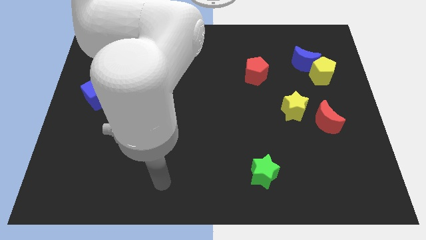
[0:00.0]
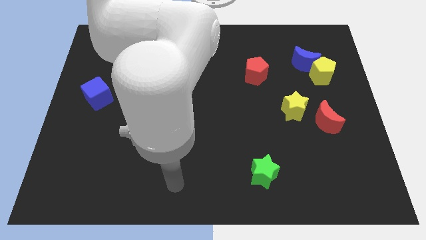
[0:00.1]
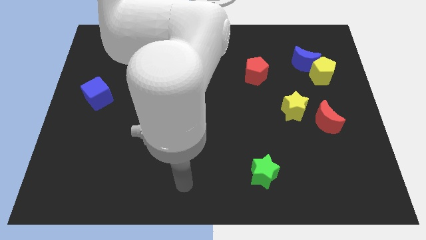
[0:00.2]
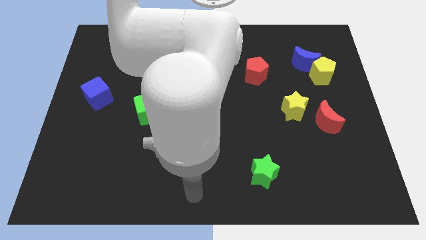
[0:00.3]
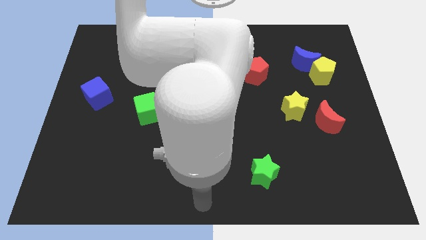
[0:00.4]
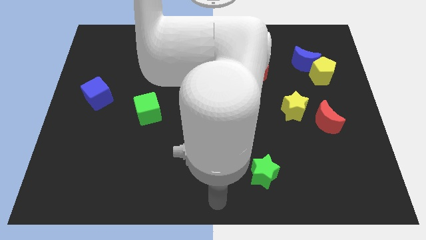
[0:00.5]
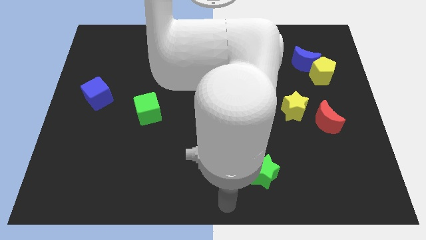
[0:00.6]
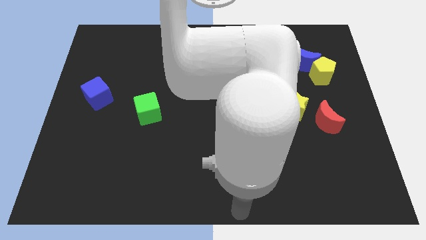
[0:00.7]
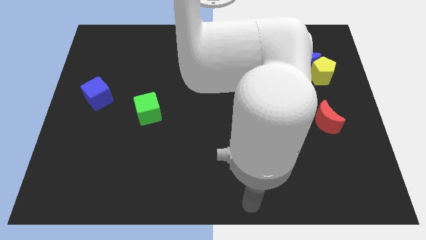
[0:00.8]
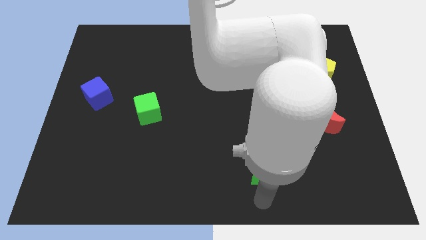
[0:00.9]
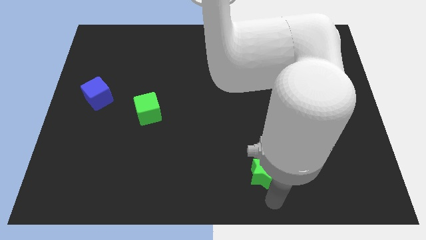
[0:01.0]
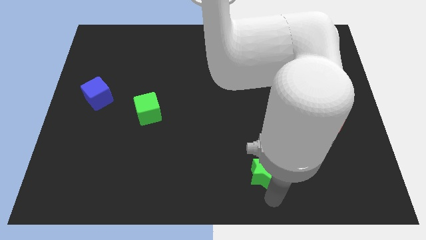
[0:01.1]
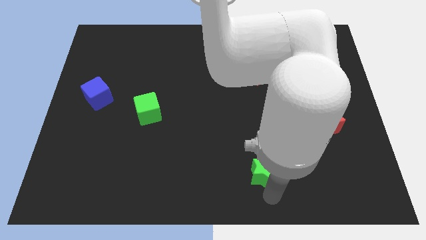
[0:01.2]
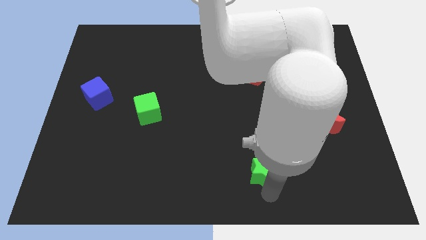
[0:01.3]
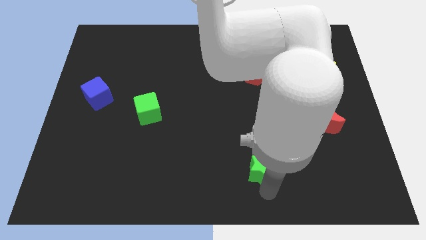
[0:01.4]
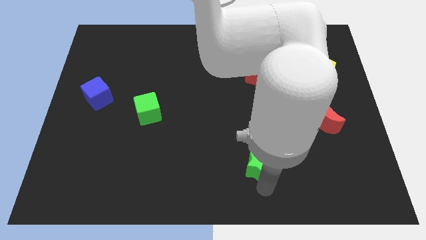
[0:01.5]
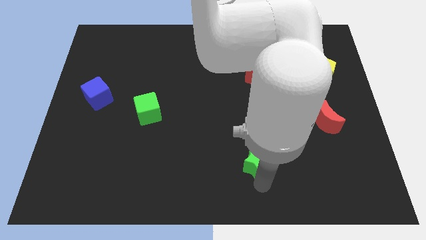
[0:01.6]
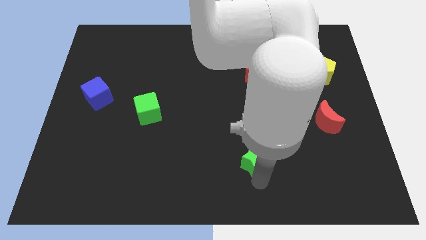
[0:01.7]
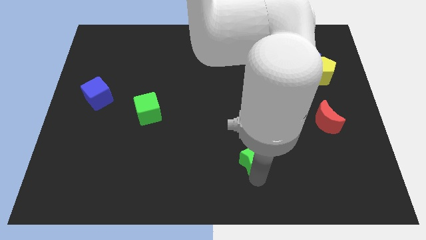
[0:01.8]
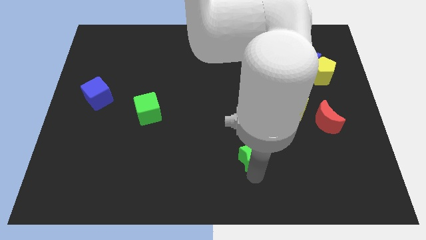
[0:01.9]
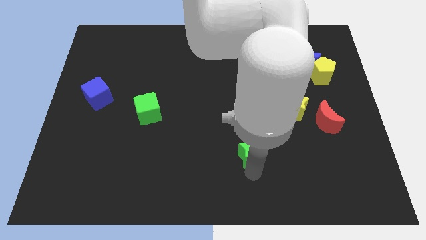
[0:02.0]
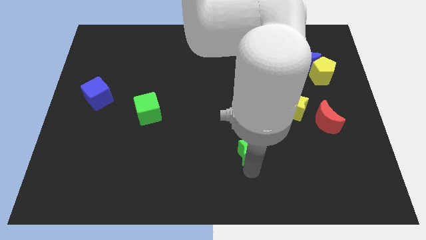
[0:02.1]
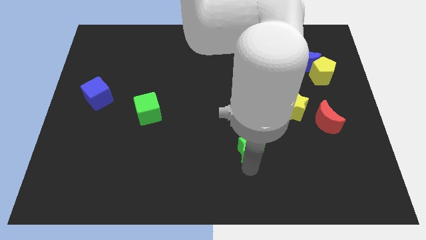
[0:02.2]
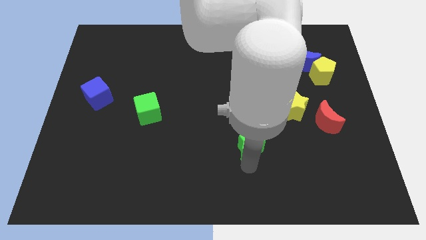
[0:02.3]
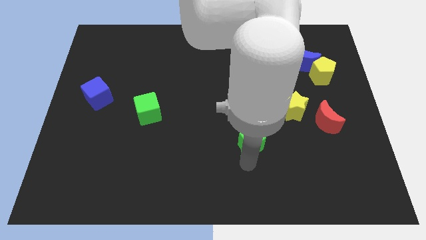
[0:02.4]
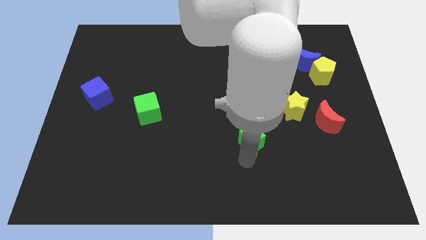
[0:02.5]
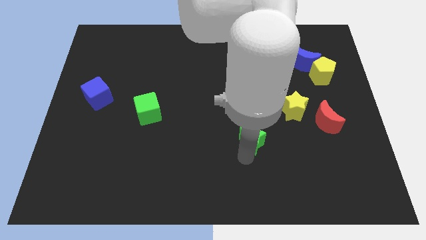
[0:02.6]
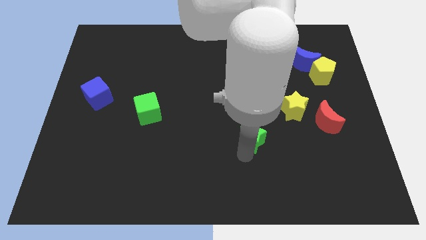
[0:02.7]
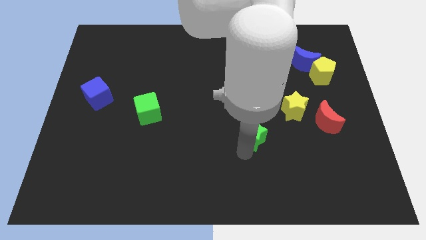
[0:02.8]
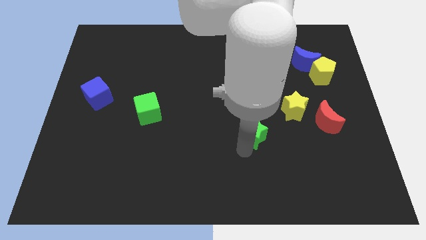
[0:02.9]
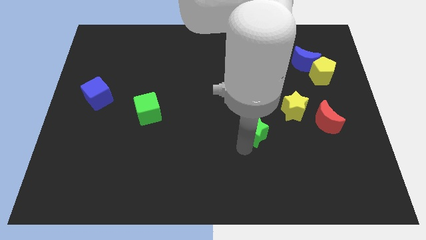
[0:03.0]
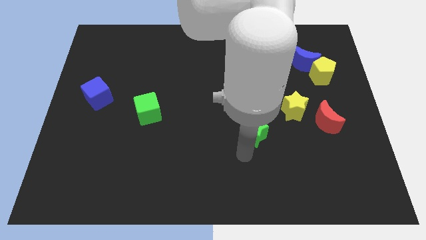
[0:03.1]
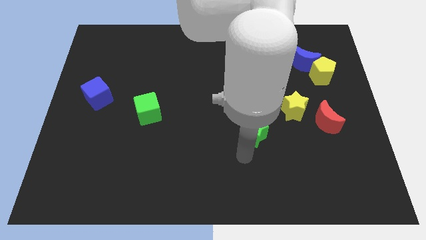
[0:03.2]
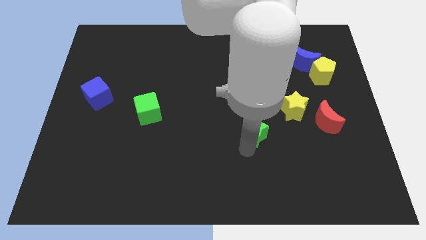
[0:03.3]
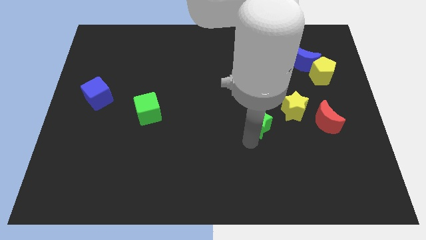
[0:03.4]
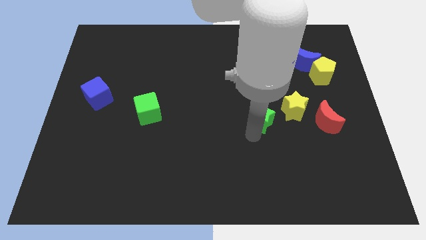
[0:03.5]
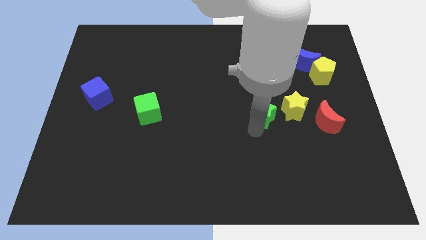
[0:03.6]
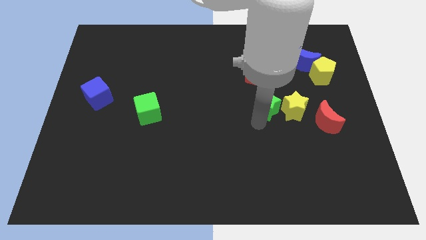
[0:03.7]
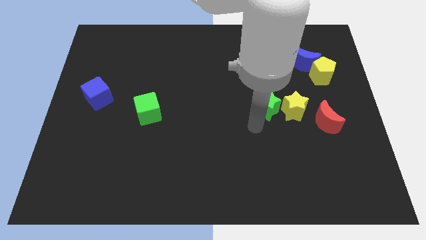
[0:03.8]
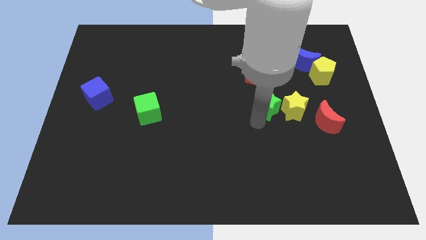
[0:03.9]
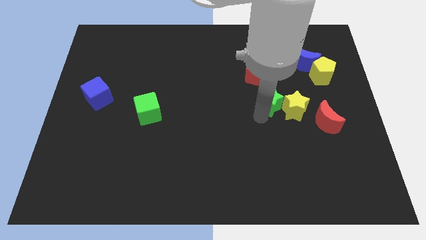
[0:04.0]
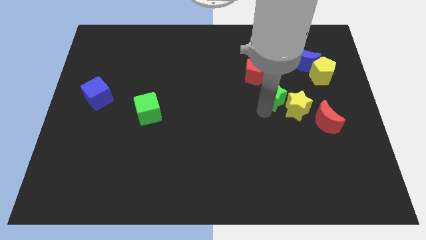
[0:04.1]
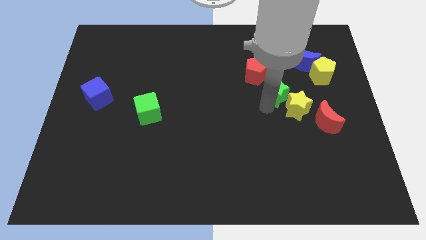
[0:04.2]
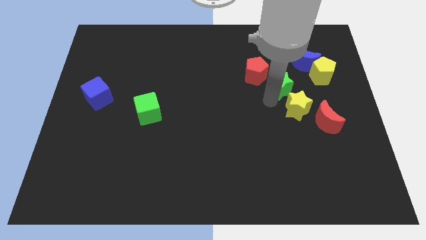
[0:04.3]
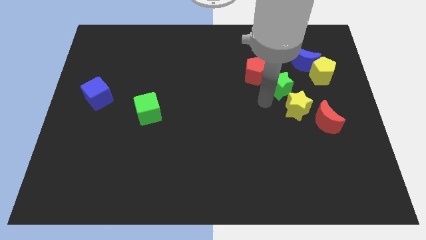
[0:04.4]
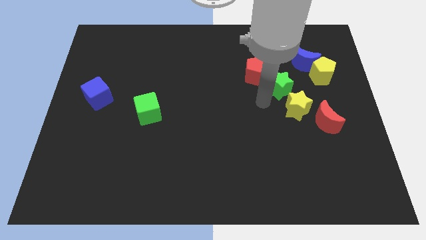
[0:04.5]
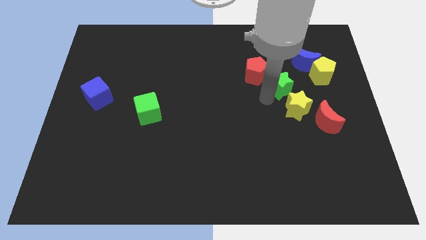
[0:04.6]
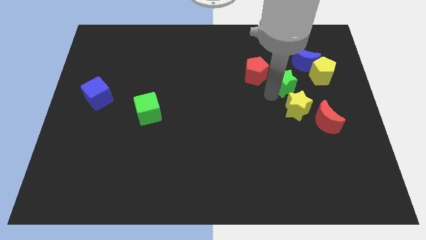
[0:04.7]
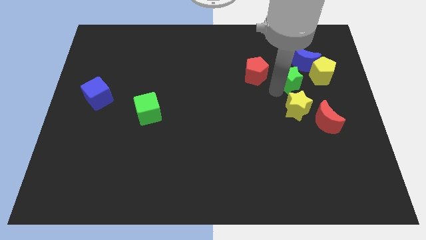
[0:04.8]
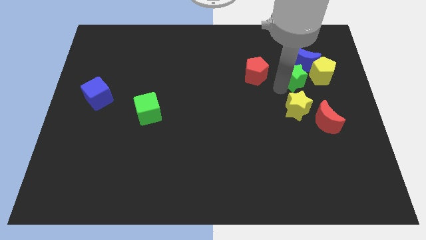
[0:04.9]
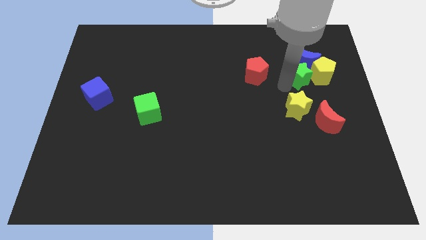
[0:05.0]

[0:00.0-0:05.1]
move the green star close to the blue moon

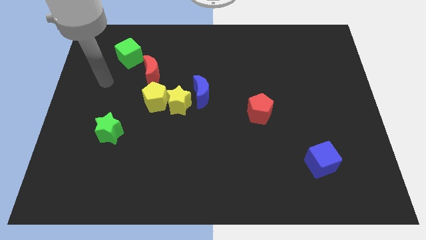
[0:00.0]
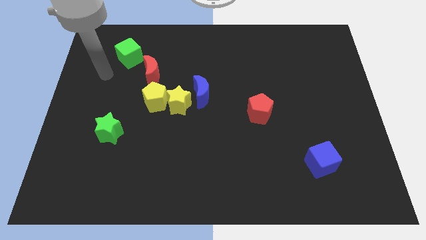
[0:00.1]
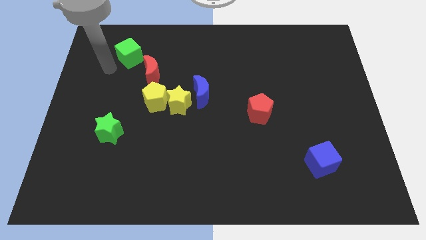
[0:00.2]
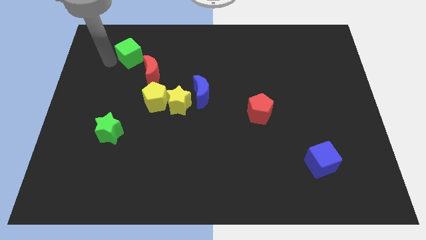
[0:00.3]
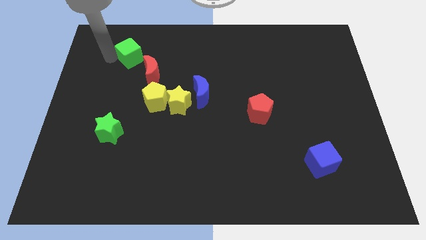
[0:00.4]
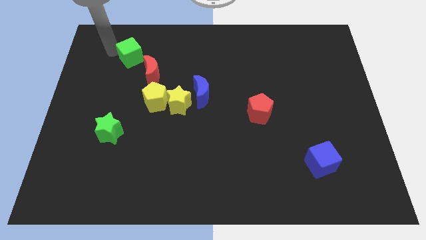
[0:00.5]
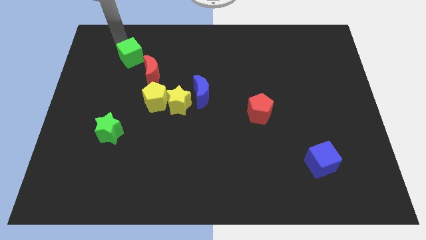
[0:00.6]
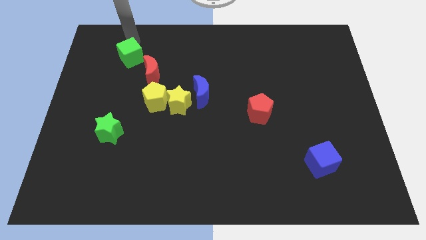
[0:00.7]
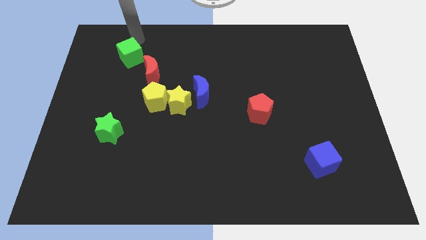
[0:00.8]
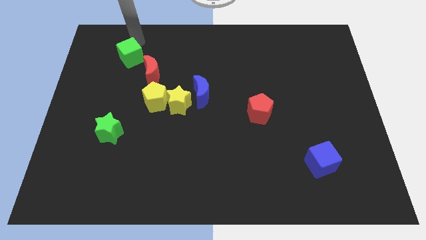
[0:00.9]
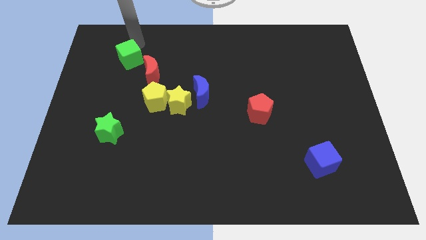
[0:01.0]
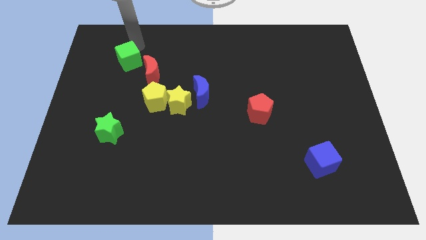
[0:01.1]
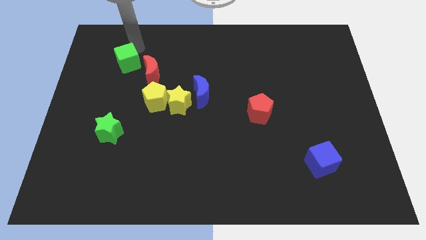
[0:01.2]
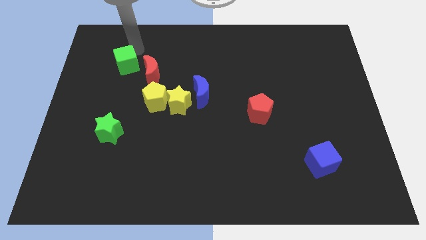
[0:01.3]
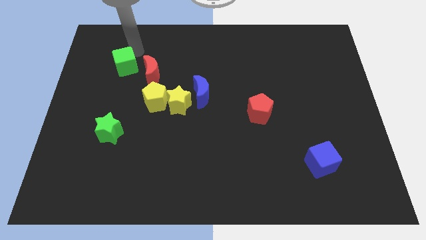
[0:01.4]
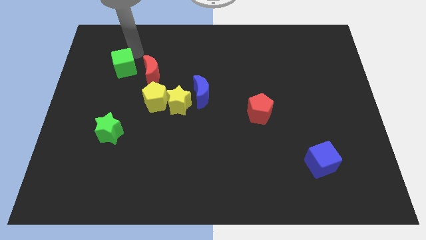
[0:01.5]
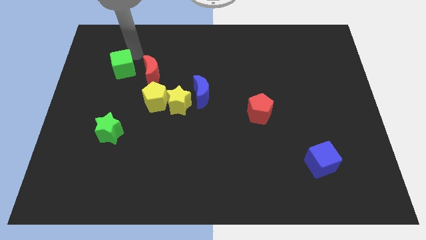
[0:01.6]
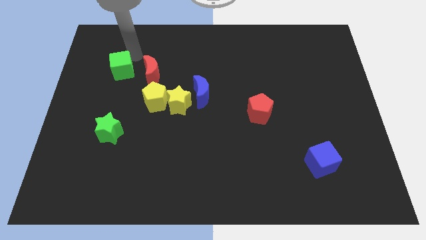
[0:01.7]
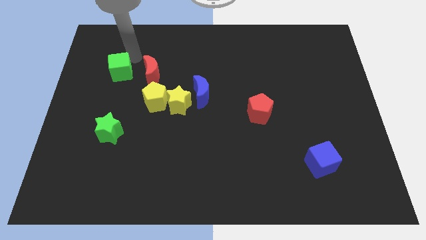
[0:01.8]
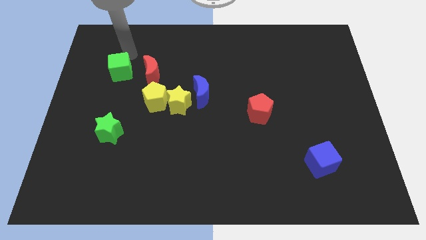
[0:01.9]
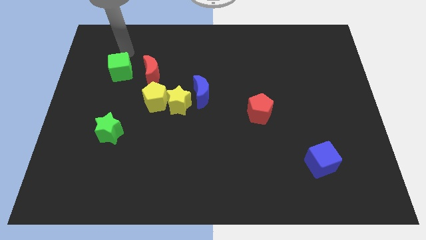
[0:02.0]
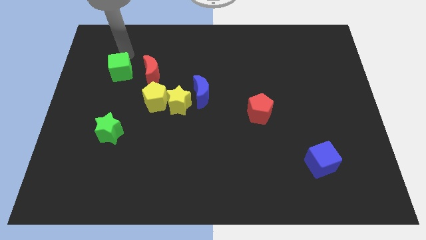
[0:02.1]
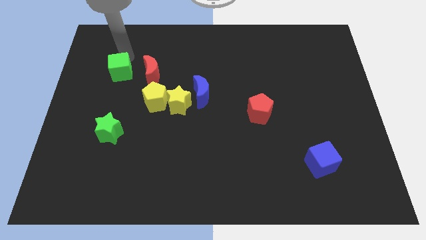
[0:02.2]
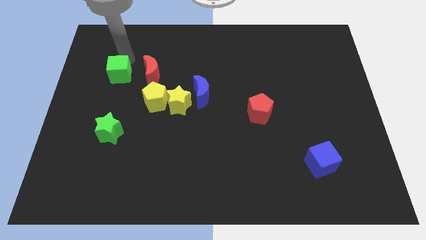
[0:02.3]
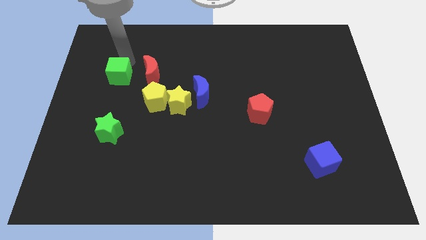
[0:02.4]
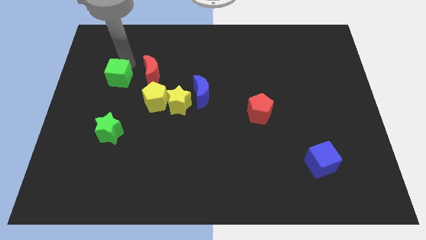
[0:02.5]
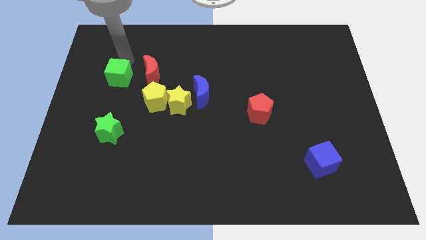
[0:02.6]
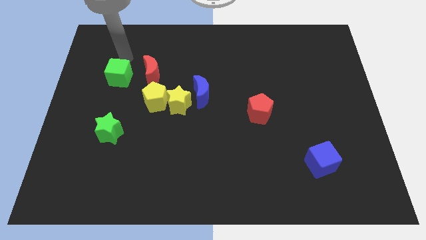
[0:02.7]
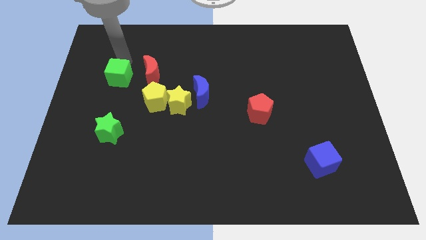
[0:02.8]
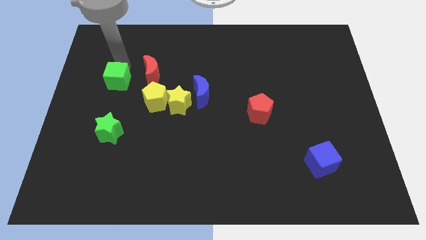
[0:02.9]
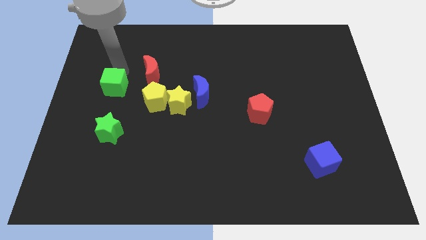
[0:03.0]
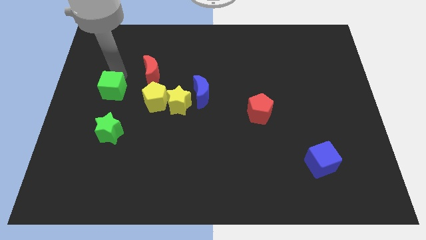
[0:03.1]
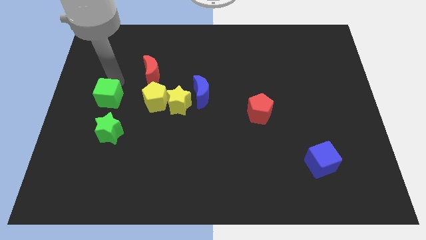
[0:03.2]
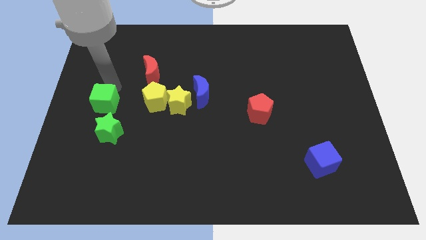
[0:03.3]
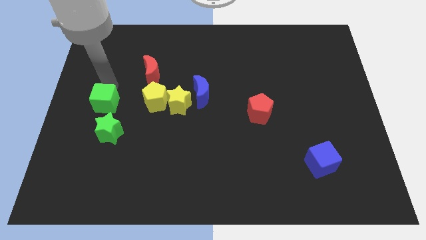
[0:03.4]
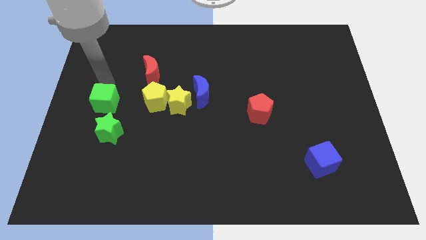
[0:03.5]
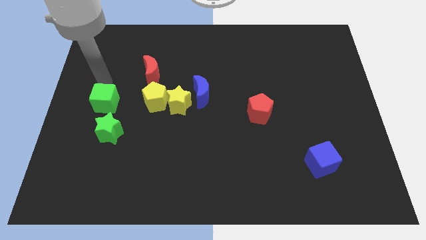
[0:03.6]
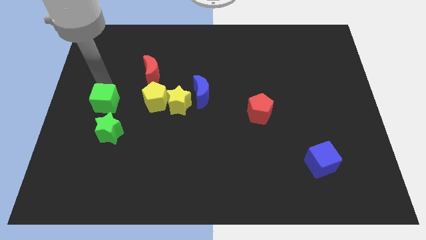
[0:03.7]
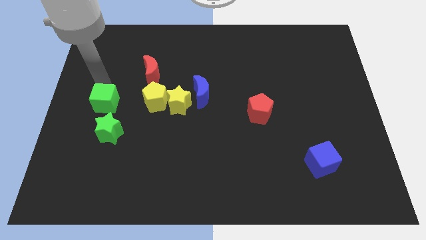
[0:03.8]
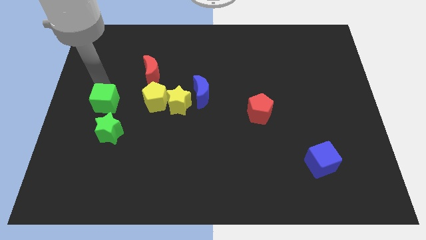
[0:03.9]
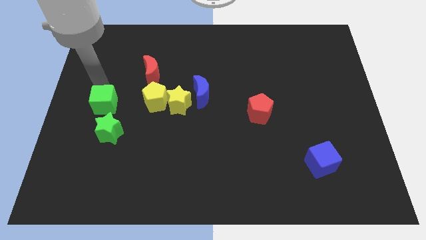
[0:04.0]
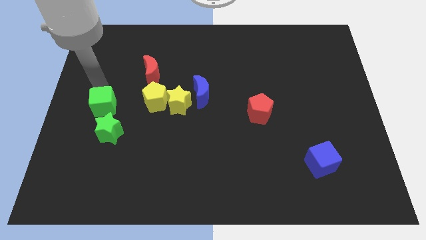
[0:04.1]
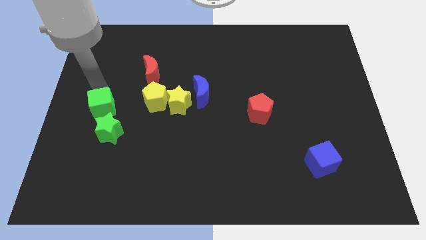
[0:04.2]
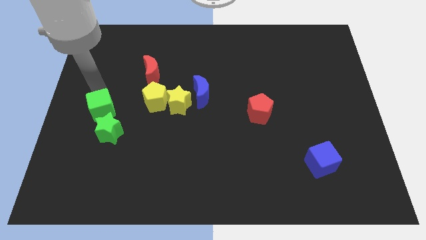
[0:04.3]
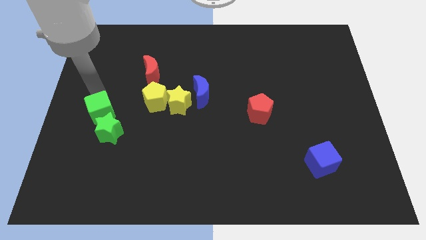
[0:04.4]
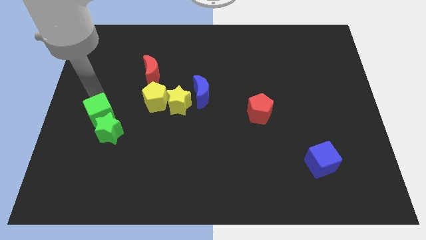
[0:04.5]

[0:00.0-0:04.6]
slide the green cube towards the green star
